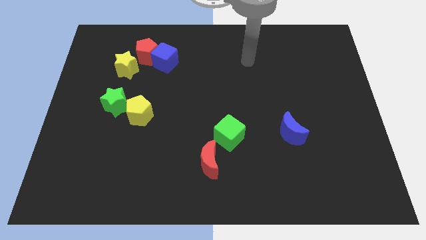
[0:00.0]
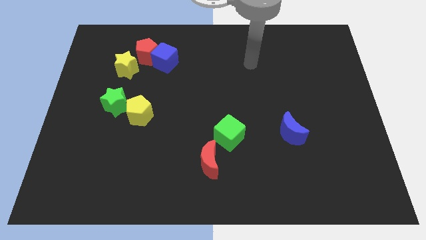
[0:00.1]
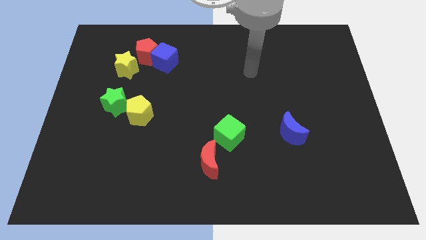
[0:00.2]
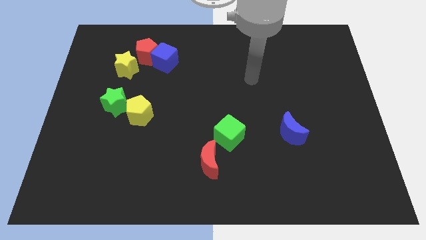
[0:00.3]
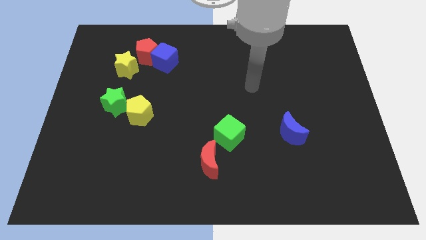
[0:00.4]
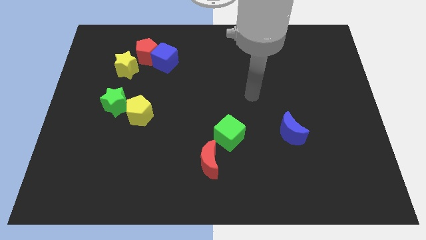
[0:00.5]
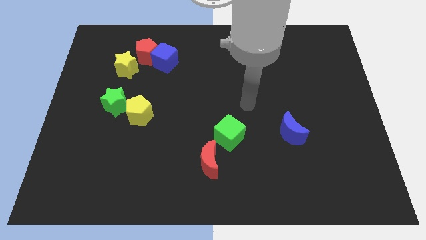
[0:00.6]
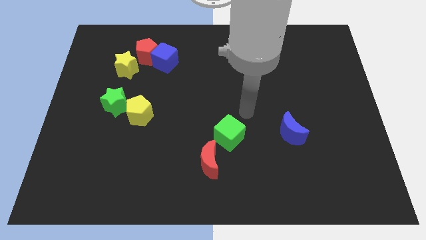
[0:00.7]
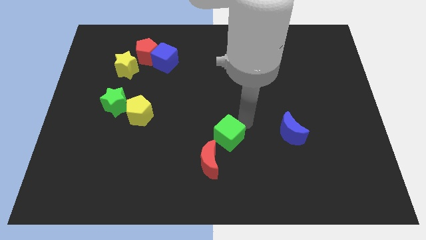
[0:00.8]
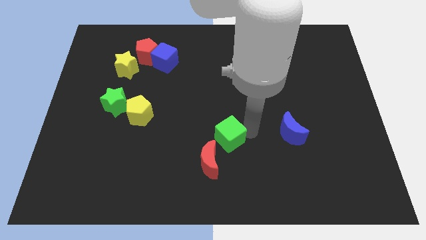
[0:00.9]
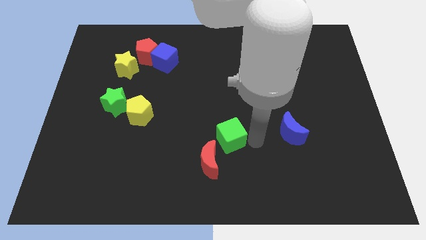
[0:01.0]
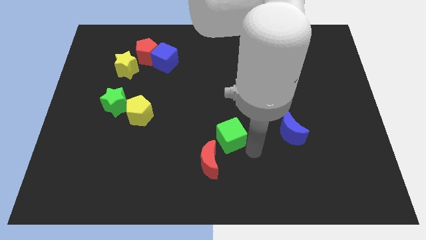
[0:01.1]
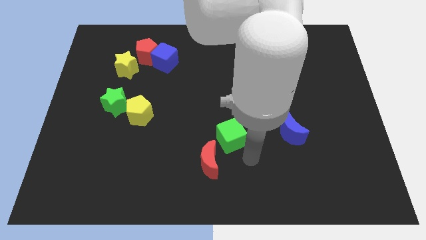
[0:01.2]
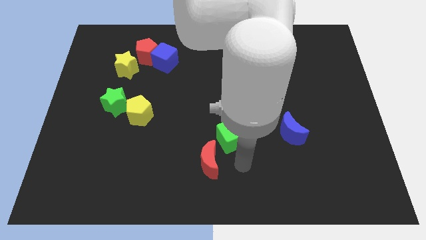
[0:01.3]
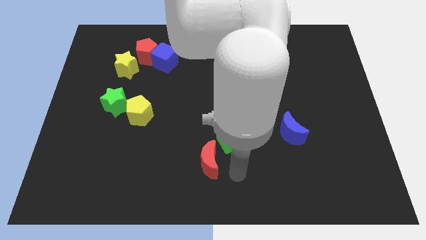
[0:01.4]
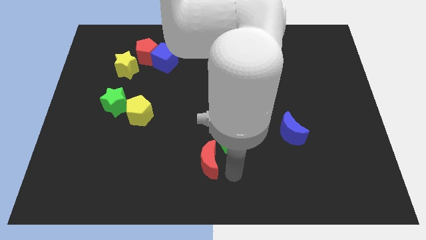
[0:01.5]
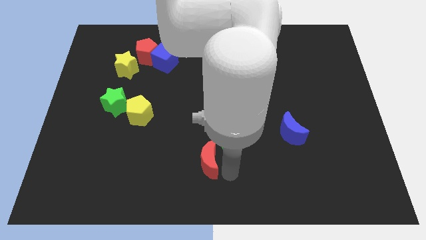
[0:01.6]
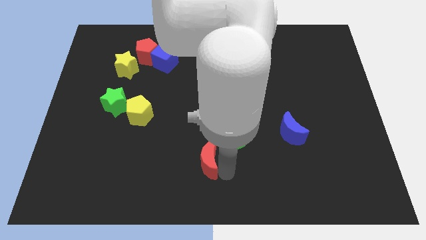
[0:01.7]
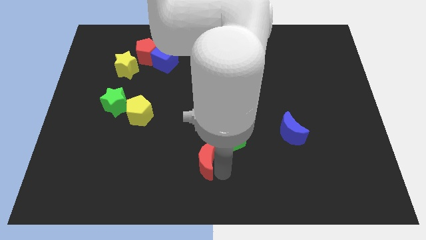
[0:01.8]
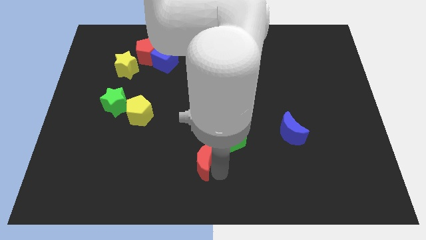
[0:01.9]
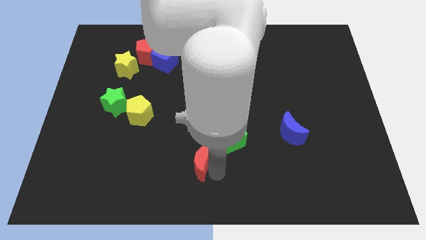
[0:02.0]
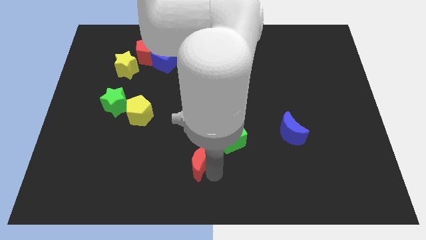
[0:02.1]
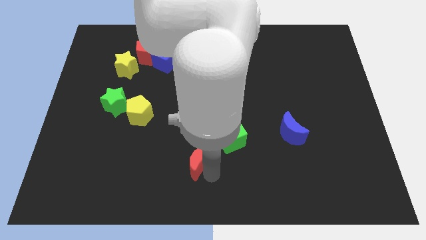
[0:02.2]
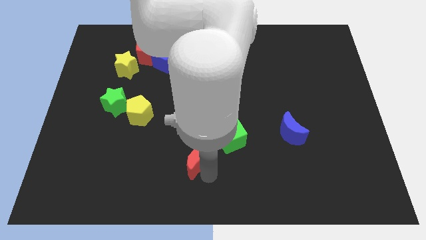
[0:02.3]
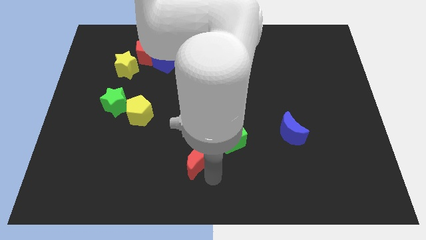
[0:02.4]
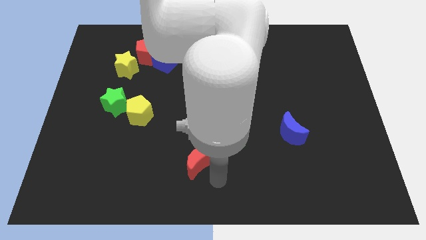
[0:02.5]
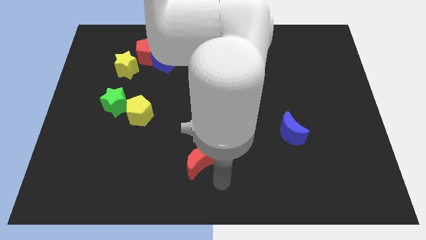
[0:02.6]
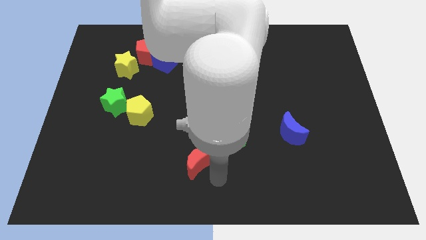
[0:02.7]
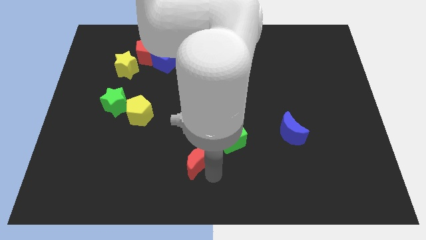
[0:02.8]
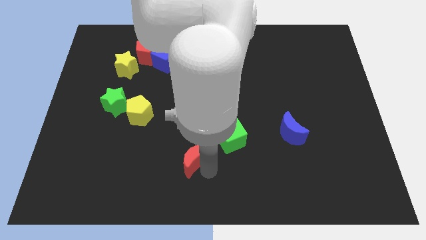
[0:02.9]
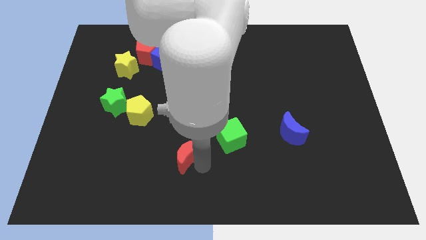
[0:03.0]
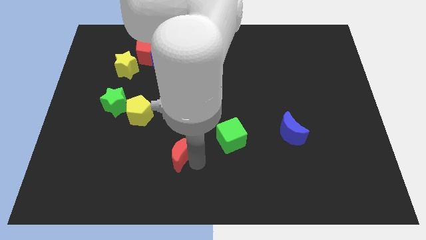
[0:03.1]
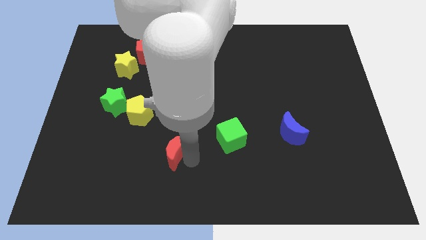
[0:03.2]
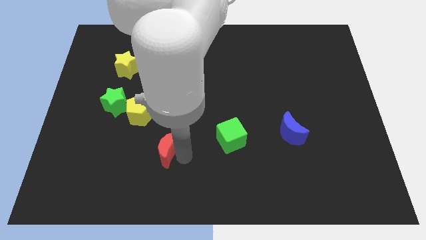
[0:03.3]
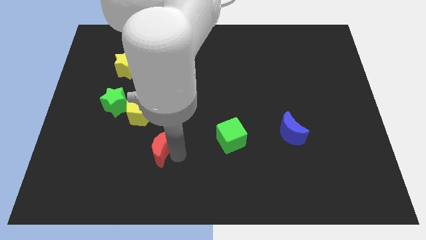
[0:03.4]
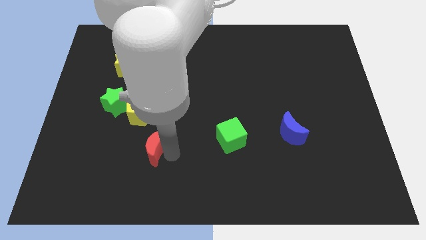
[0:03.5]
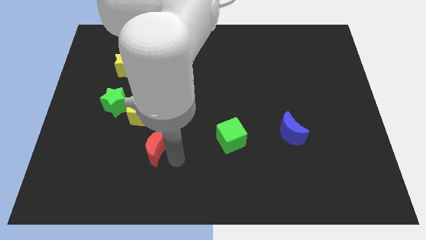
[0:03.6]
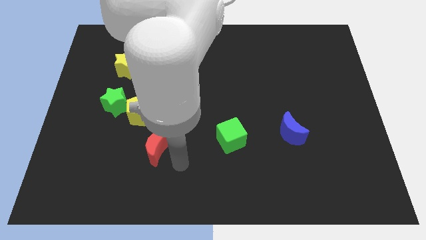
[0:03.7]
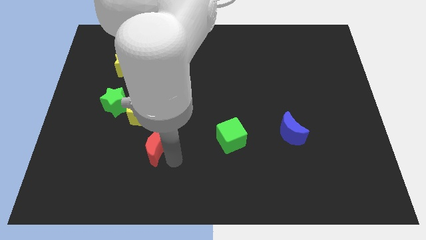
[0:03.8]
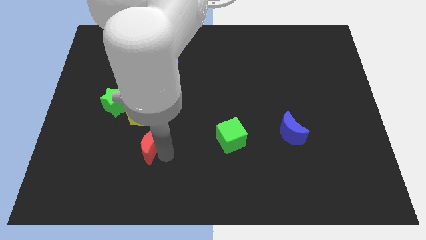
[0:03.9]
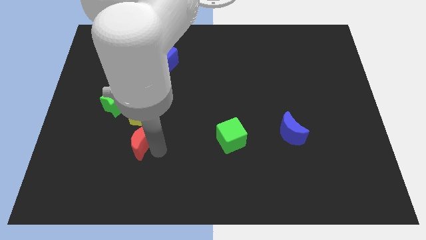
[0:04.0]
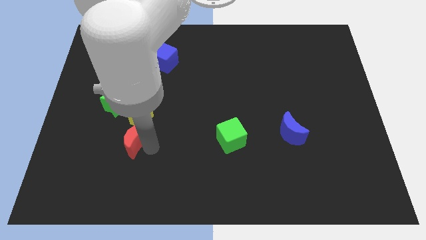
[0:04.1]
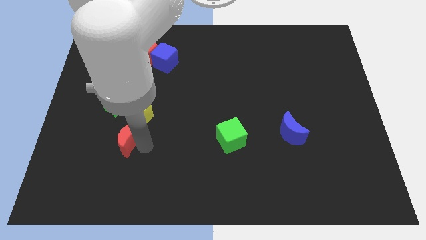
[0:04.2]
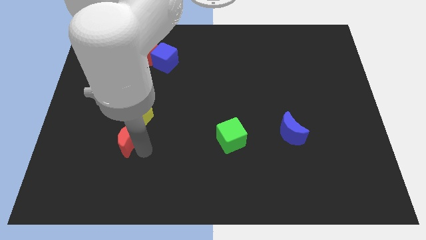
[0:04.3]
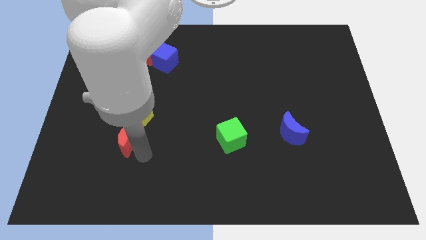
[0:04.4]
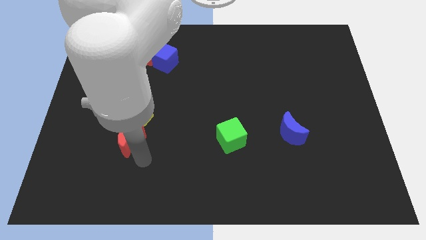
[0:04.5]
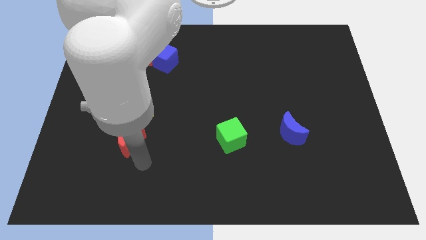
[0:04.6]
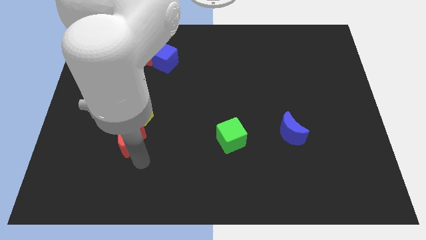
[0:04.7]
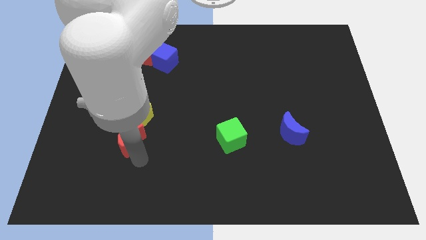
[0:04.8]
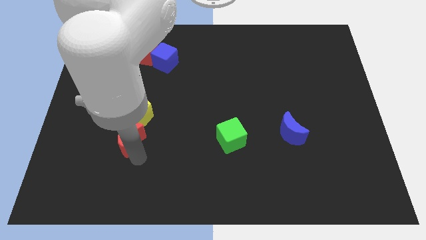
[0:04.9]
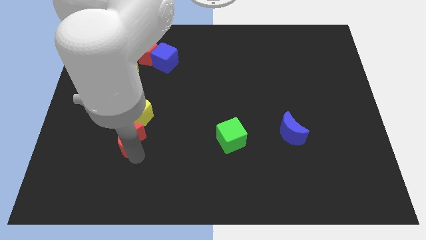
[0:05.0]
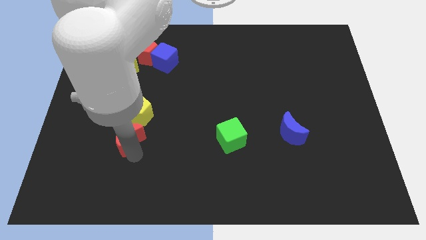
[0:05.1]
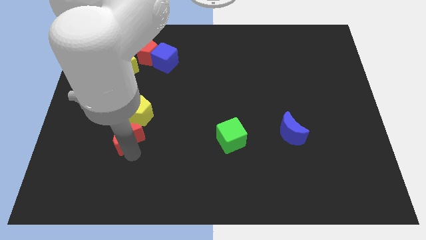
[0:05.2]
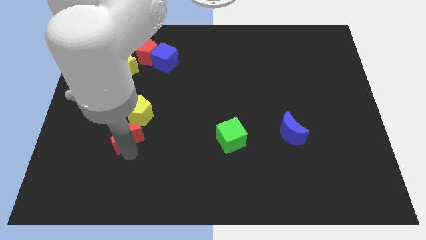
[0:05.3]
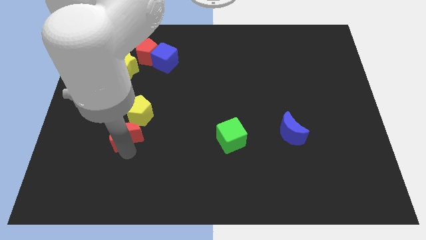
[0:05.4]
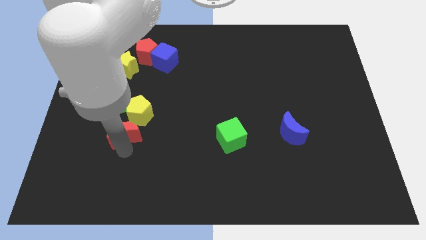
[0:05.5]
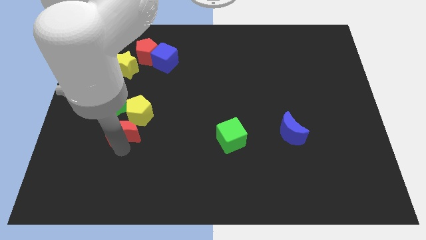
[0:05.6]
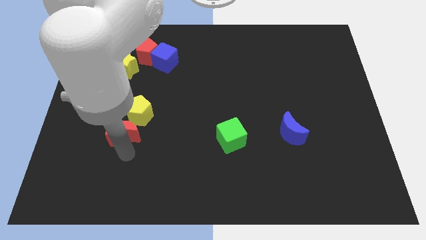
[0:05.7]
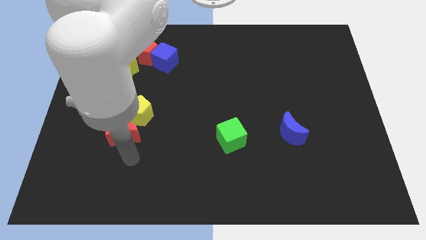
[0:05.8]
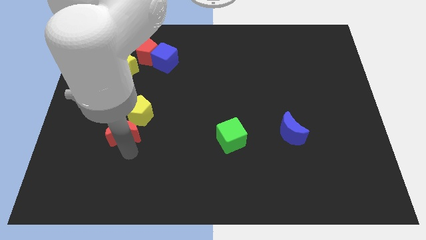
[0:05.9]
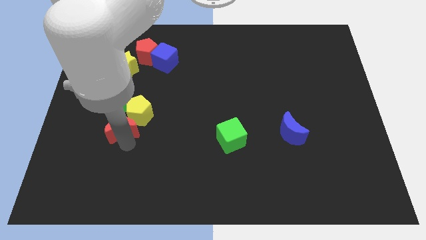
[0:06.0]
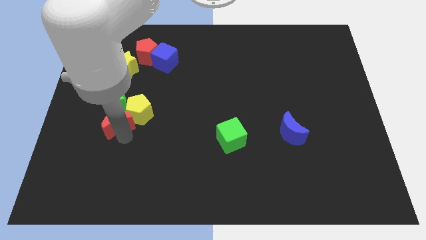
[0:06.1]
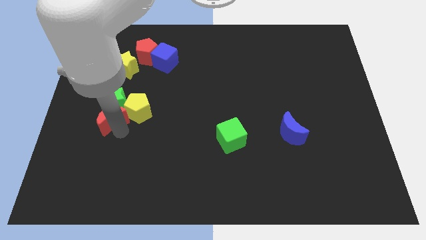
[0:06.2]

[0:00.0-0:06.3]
slide the red moon towards the green star

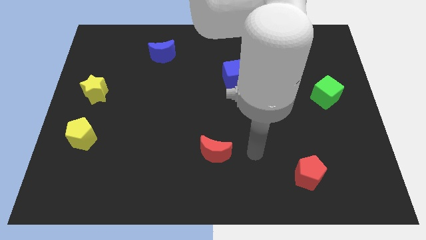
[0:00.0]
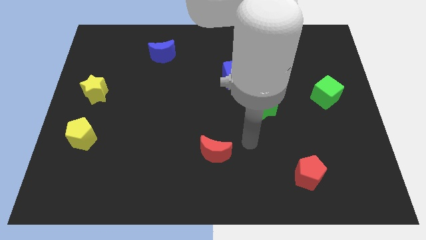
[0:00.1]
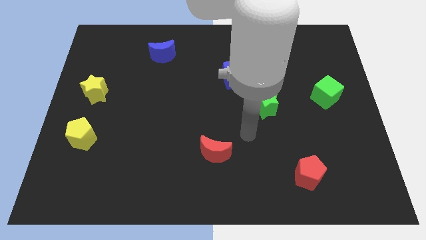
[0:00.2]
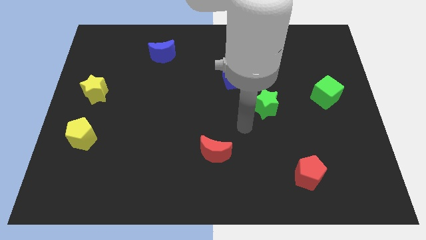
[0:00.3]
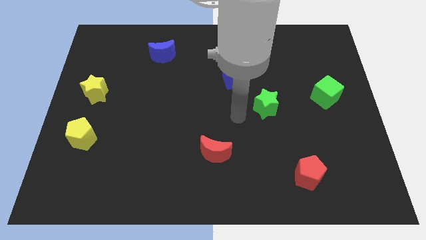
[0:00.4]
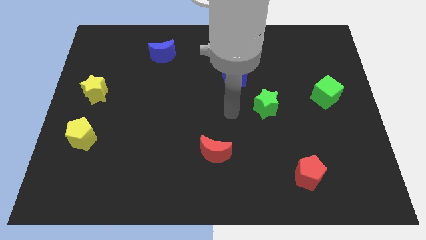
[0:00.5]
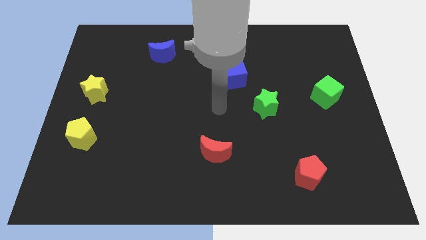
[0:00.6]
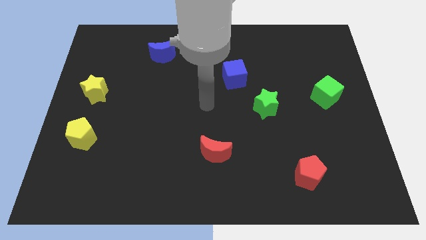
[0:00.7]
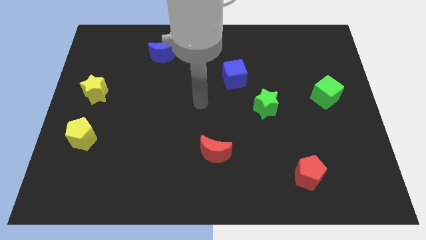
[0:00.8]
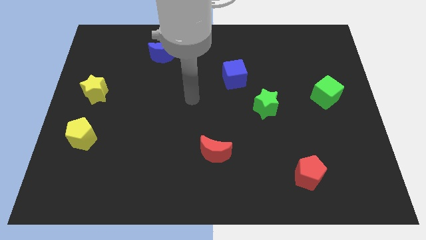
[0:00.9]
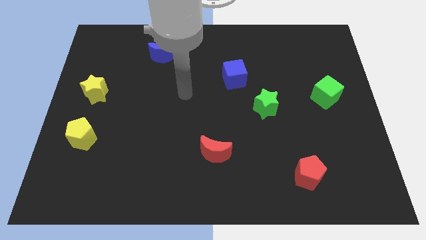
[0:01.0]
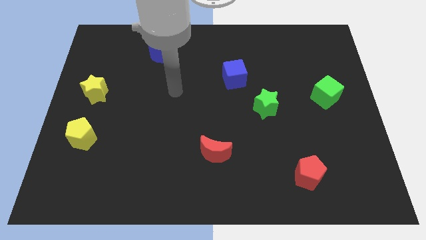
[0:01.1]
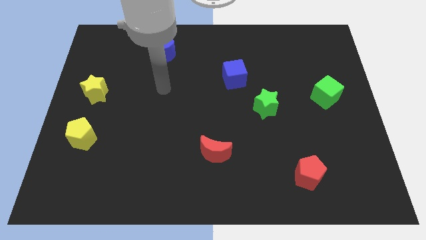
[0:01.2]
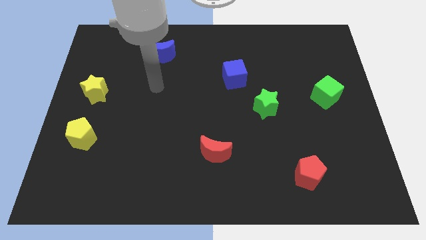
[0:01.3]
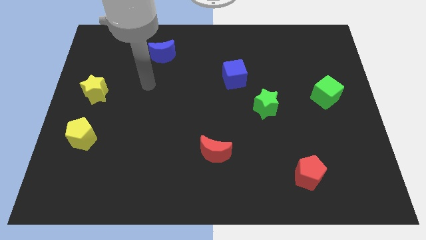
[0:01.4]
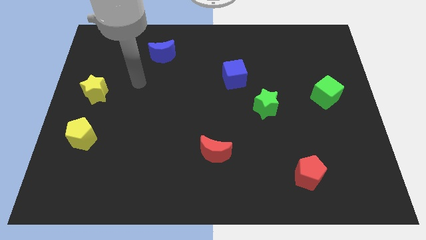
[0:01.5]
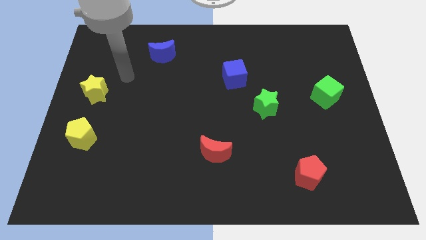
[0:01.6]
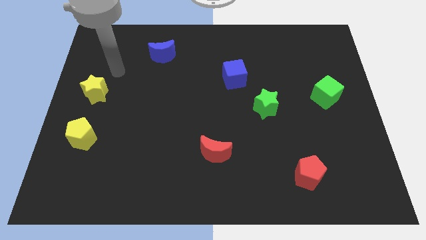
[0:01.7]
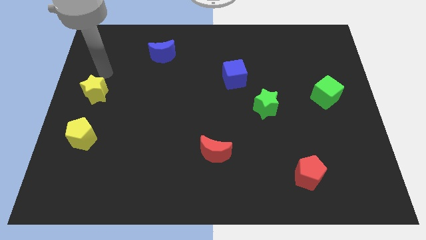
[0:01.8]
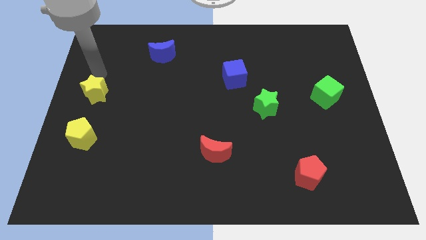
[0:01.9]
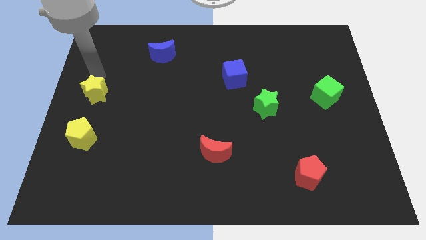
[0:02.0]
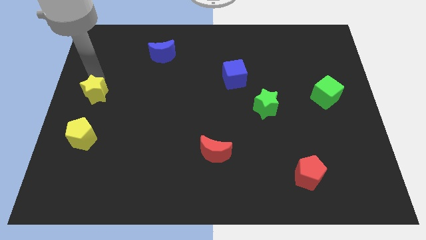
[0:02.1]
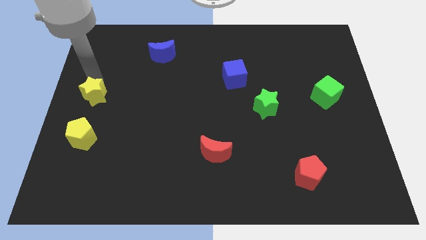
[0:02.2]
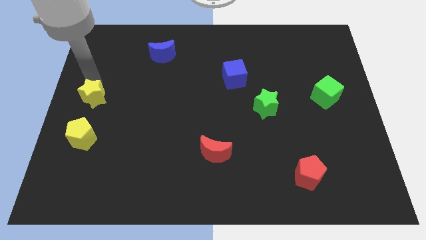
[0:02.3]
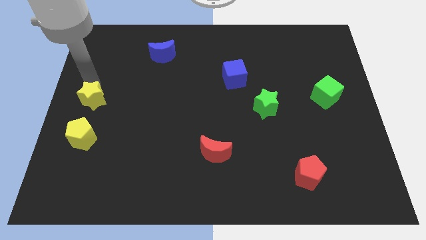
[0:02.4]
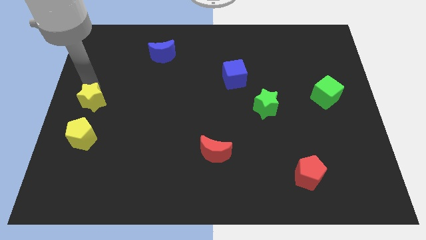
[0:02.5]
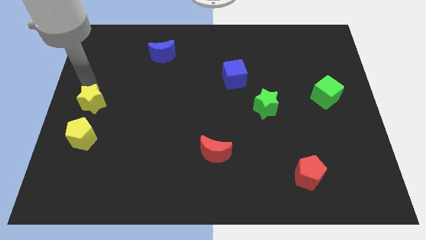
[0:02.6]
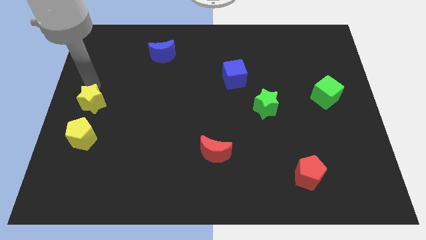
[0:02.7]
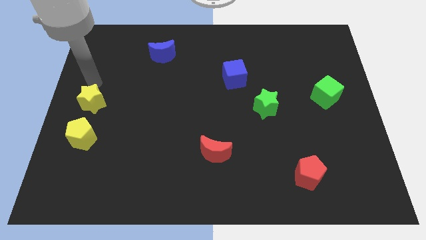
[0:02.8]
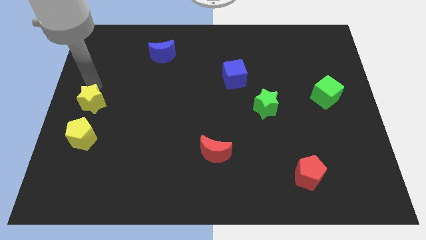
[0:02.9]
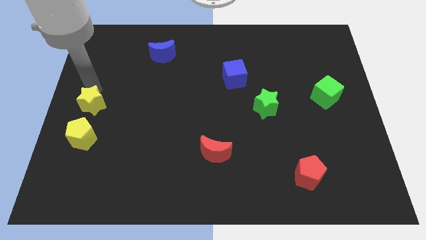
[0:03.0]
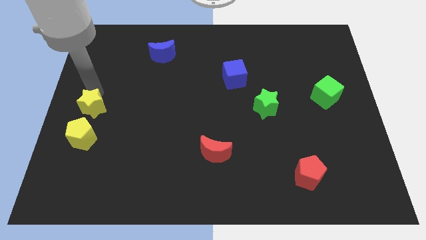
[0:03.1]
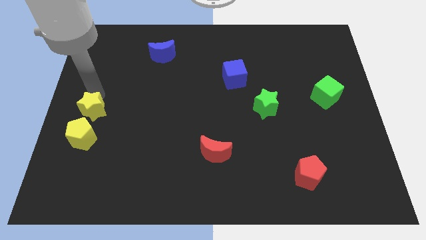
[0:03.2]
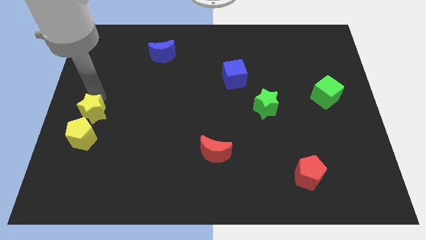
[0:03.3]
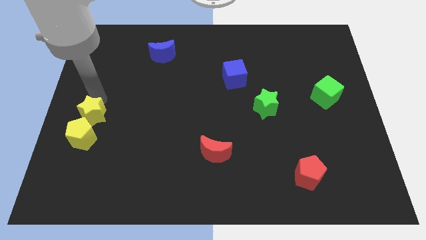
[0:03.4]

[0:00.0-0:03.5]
push the yellow star close to the yellow pentagon
